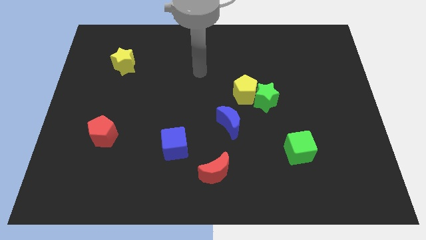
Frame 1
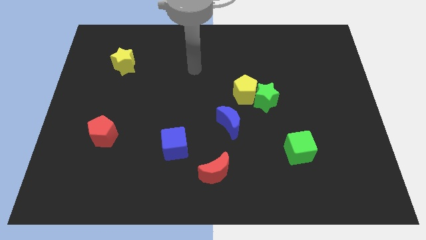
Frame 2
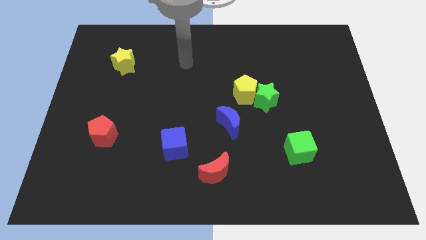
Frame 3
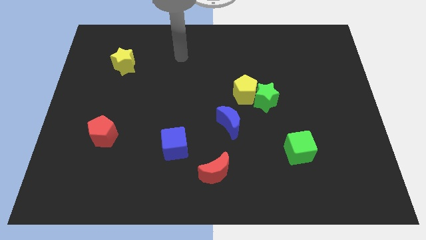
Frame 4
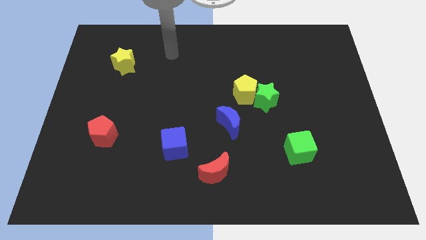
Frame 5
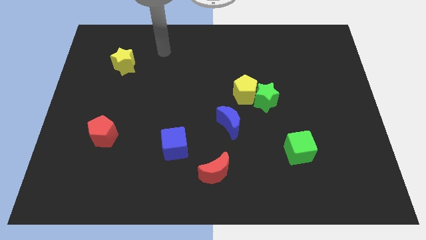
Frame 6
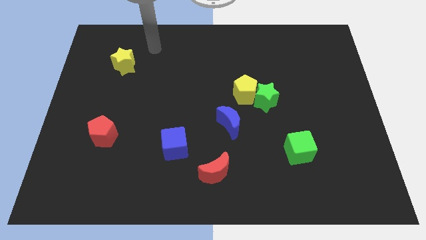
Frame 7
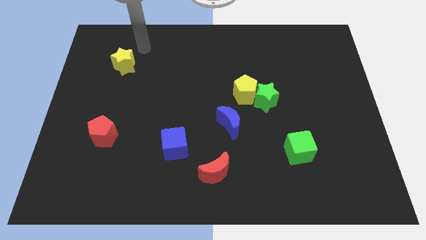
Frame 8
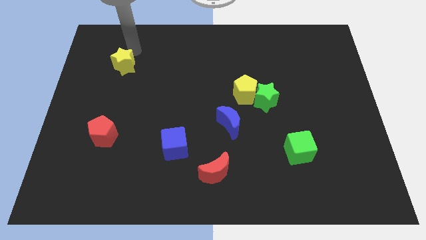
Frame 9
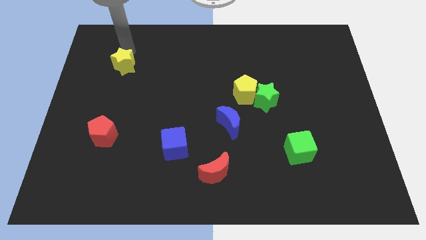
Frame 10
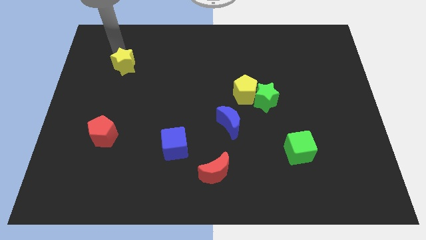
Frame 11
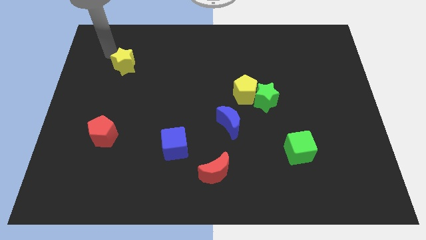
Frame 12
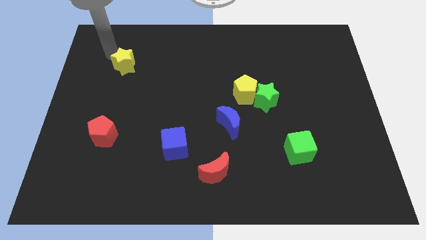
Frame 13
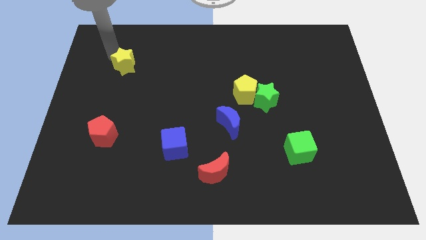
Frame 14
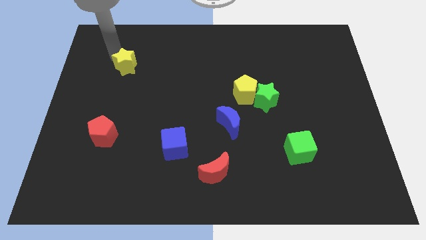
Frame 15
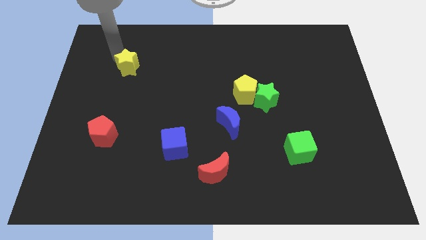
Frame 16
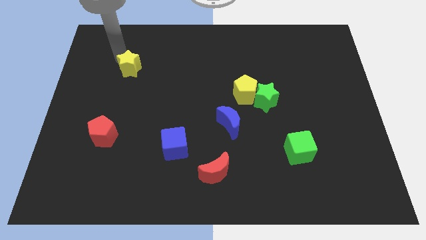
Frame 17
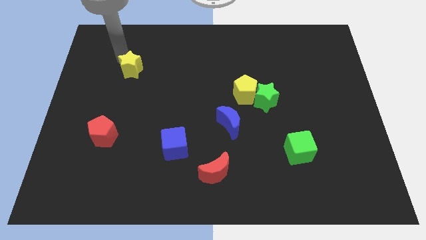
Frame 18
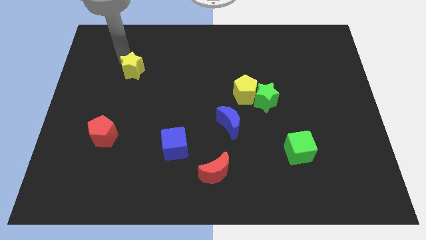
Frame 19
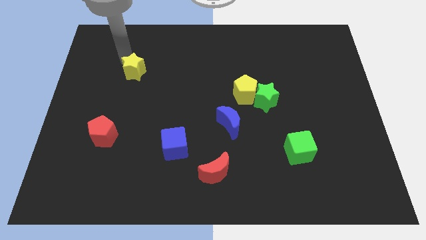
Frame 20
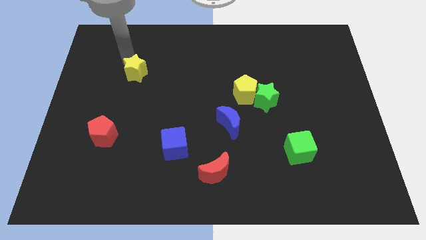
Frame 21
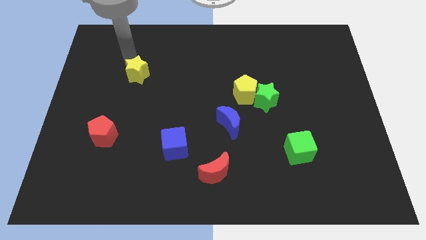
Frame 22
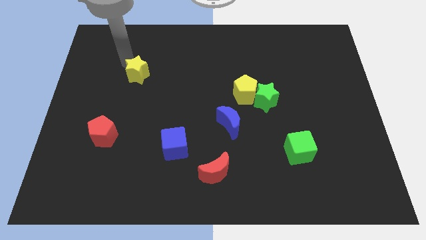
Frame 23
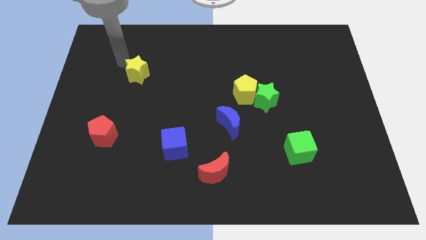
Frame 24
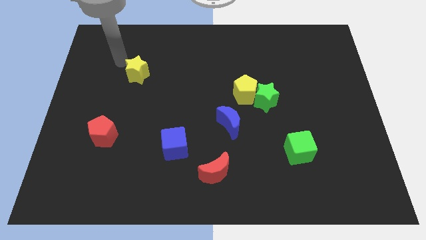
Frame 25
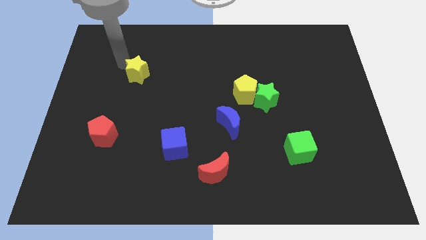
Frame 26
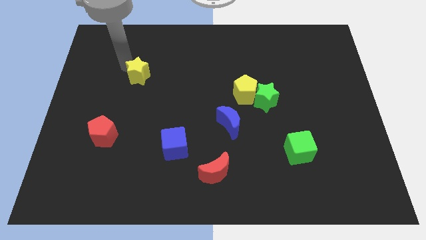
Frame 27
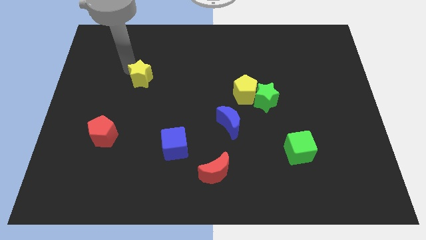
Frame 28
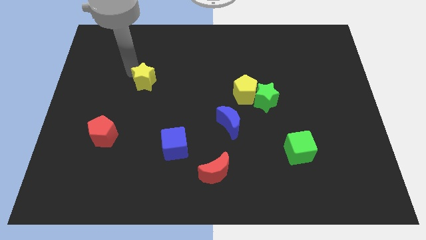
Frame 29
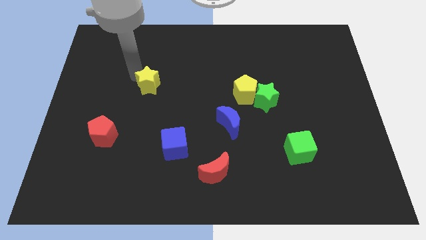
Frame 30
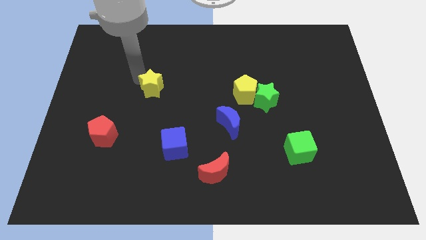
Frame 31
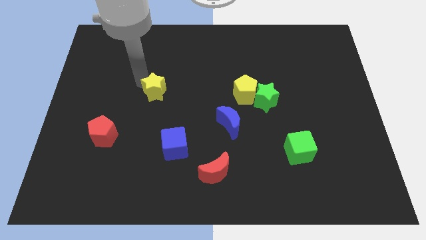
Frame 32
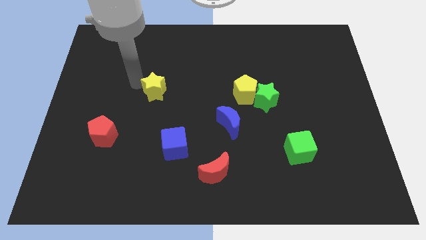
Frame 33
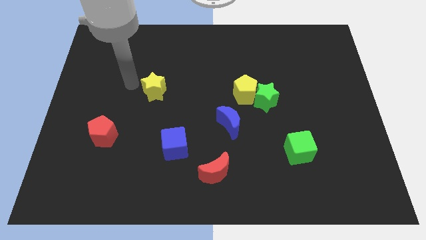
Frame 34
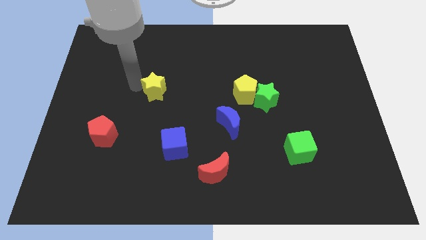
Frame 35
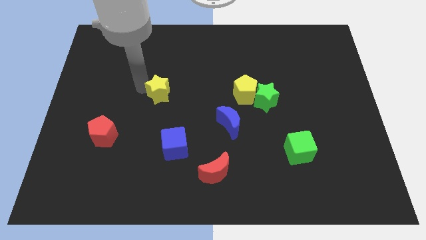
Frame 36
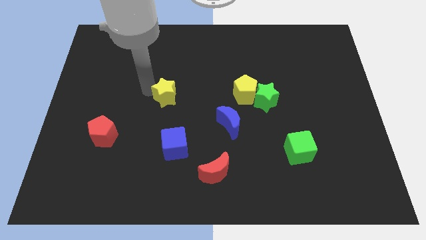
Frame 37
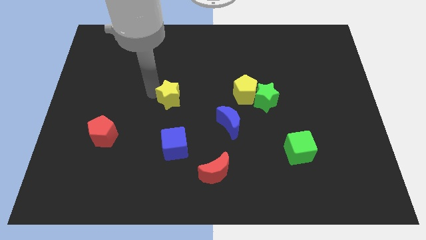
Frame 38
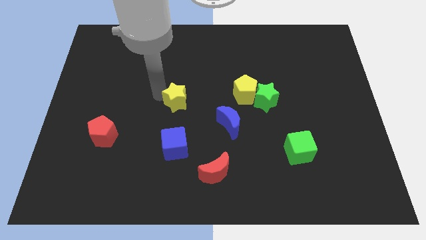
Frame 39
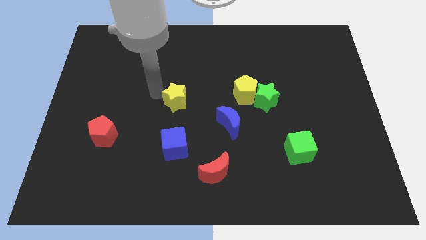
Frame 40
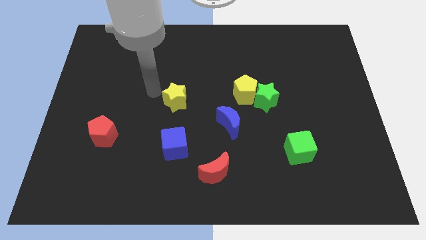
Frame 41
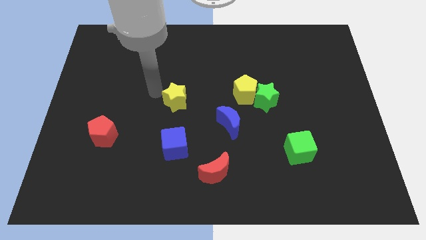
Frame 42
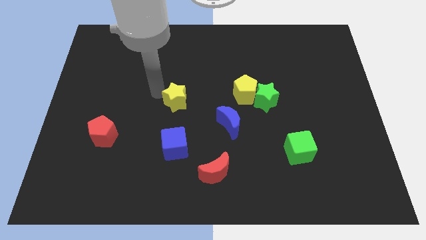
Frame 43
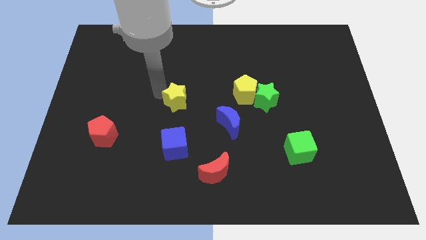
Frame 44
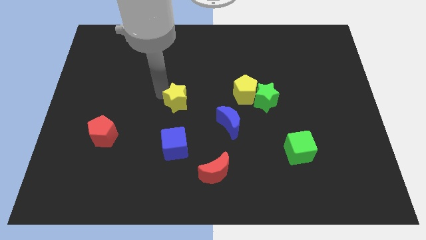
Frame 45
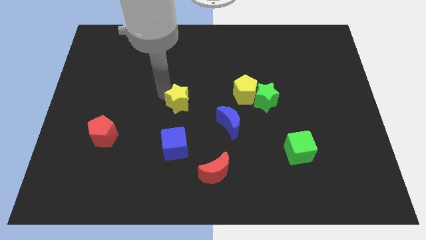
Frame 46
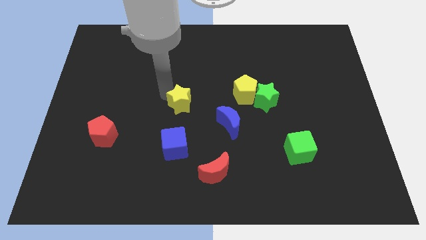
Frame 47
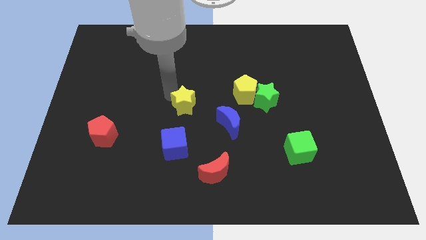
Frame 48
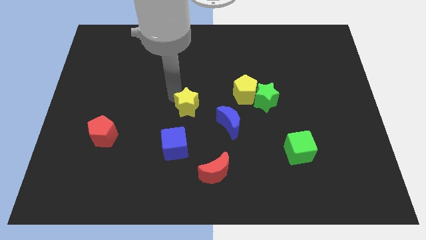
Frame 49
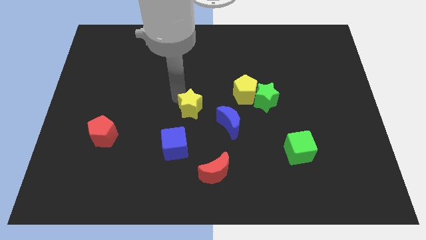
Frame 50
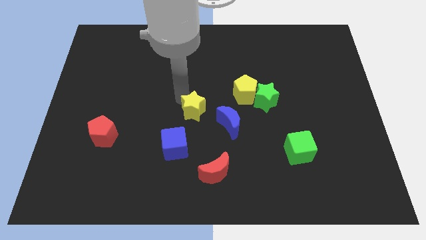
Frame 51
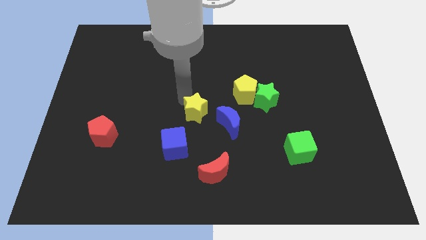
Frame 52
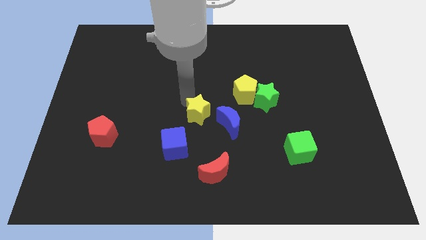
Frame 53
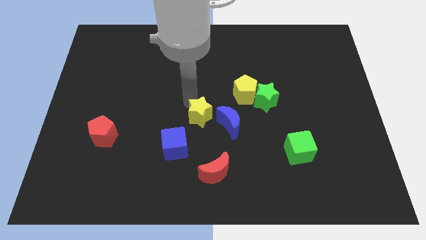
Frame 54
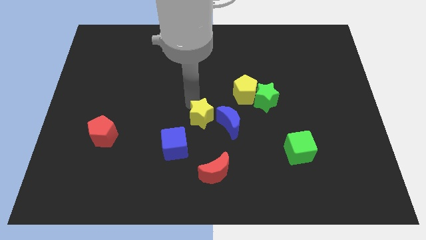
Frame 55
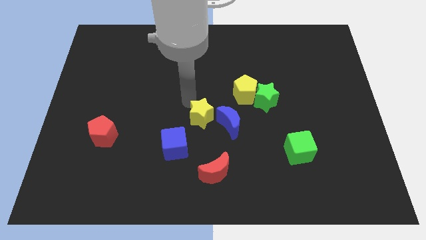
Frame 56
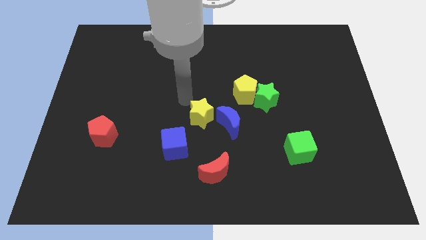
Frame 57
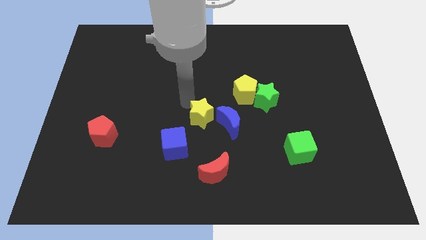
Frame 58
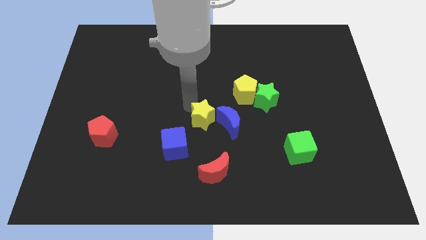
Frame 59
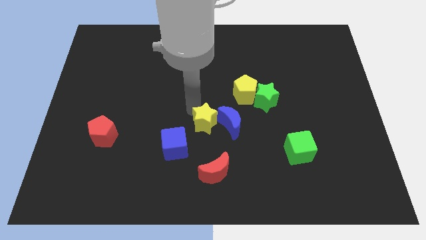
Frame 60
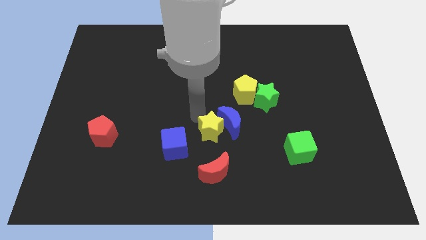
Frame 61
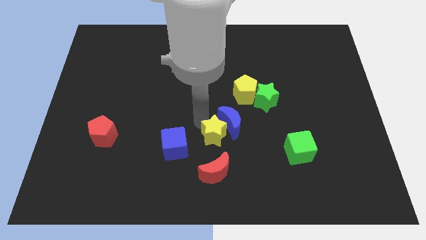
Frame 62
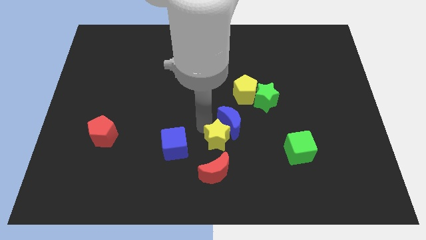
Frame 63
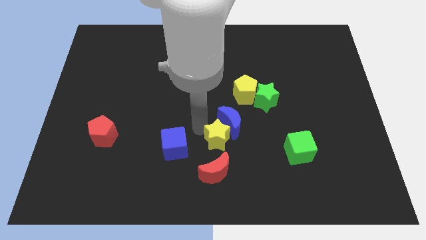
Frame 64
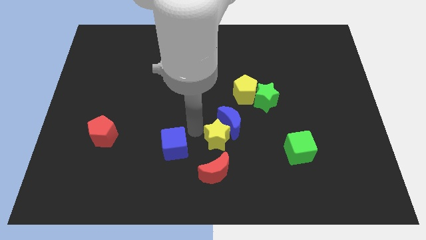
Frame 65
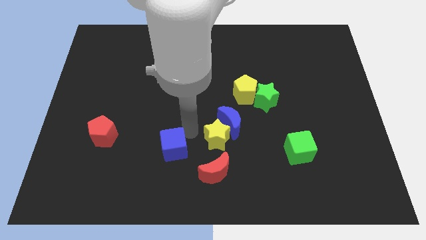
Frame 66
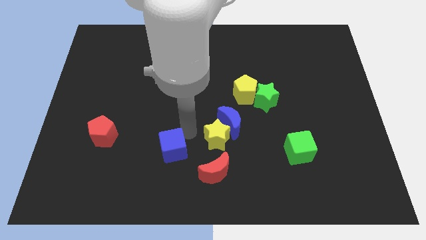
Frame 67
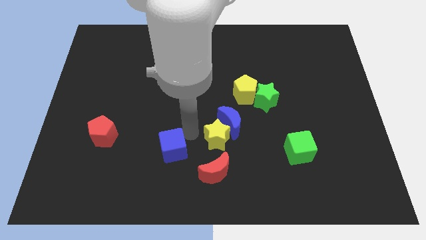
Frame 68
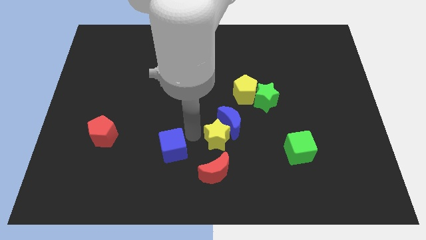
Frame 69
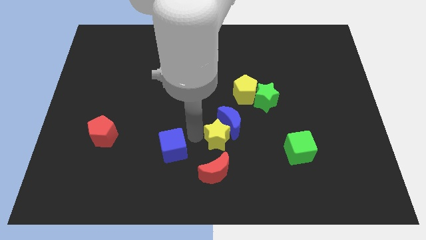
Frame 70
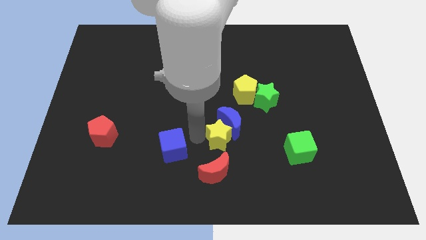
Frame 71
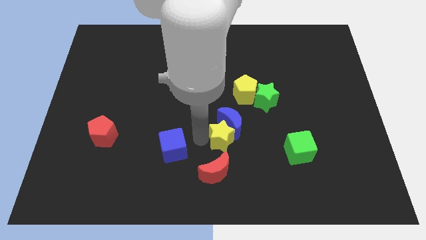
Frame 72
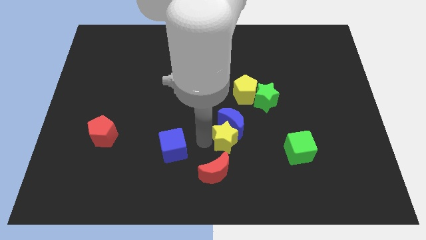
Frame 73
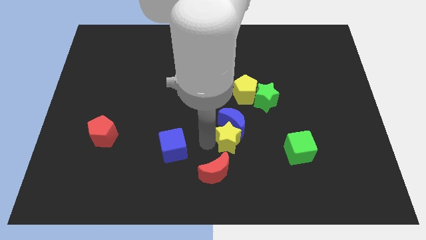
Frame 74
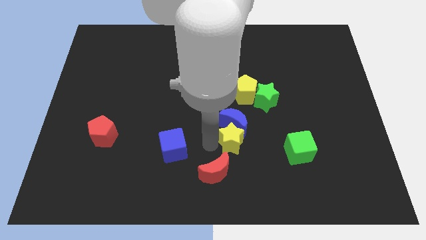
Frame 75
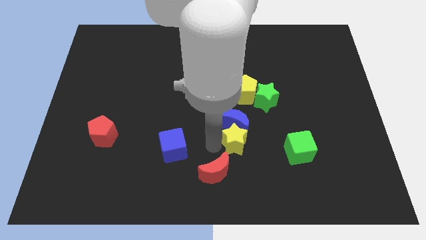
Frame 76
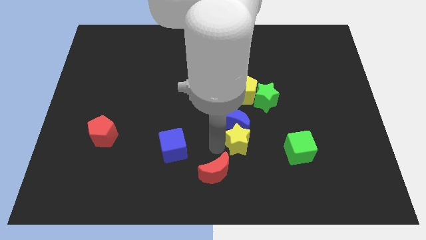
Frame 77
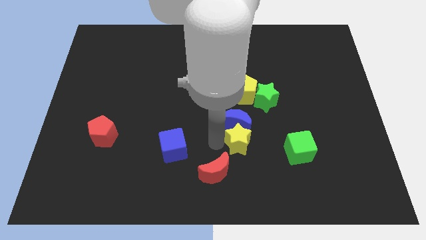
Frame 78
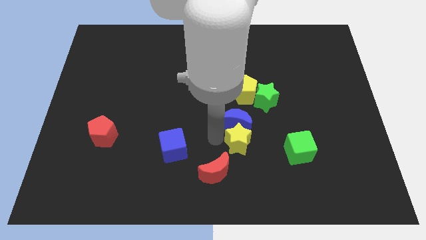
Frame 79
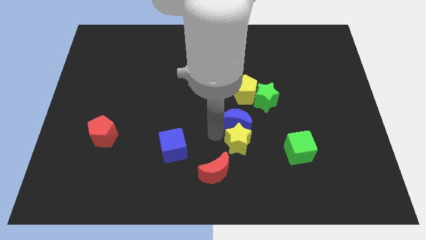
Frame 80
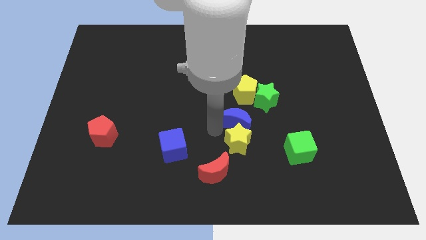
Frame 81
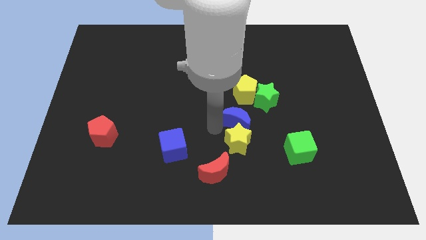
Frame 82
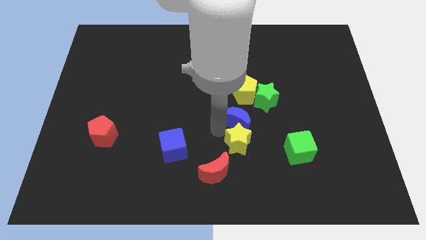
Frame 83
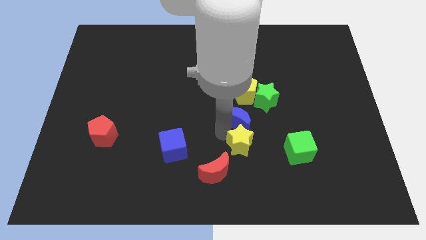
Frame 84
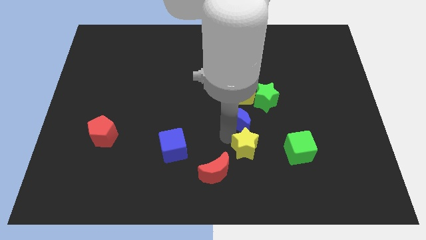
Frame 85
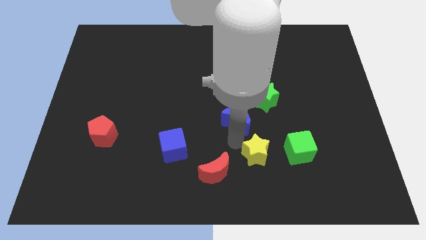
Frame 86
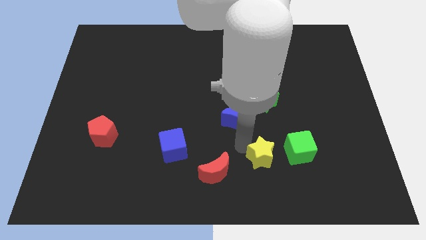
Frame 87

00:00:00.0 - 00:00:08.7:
move the yellow star diagonally down and to the left of the green cube
